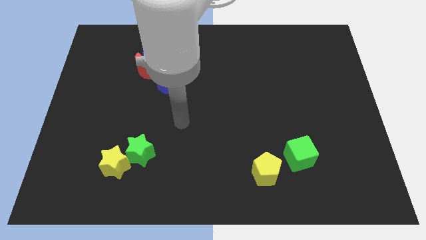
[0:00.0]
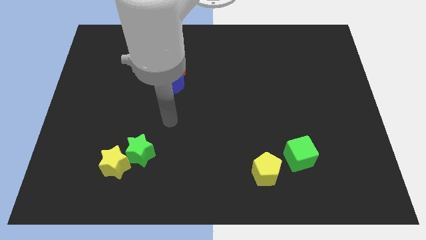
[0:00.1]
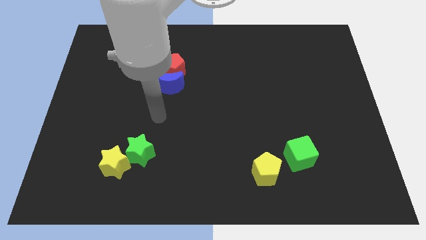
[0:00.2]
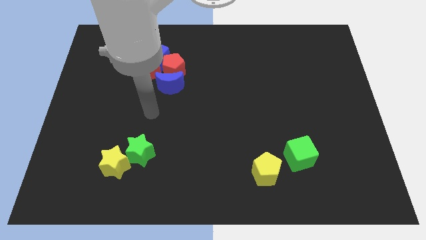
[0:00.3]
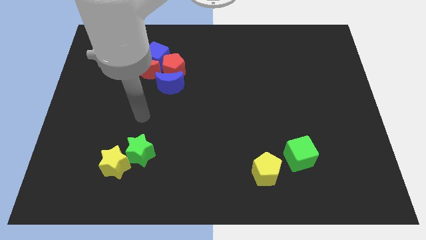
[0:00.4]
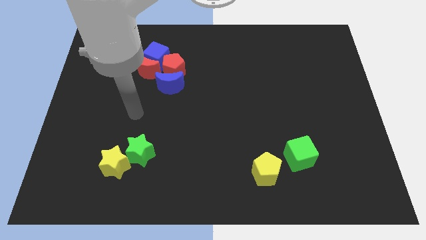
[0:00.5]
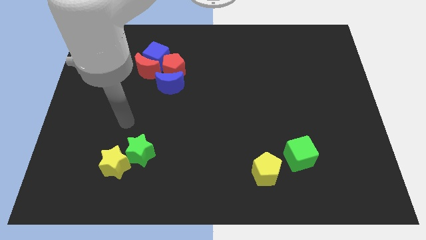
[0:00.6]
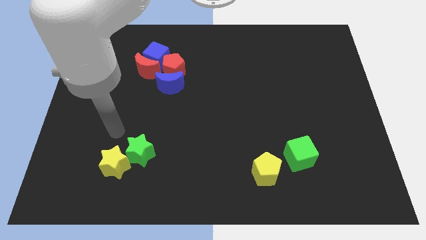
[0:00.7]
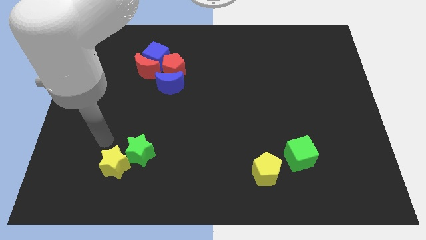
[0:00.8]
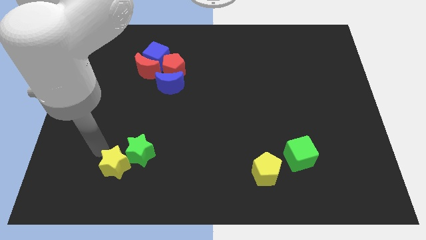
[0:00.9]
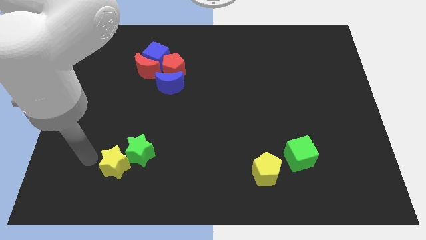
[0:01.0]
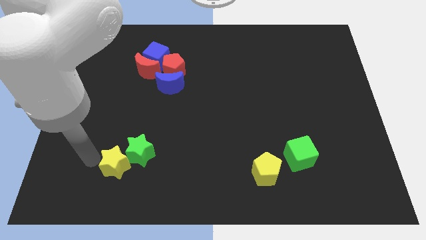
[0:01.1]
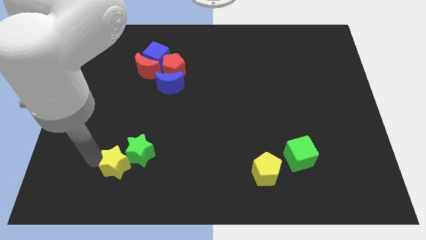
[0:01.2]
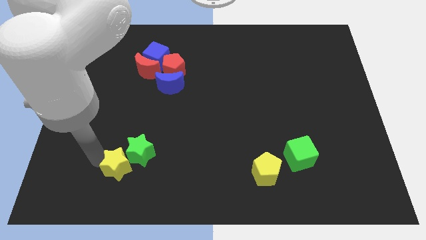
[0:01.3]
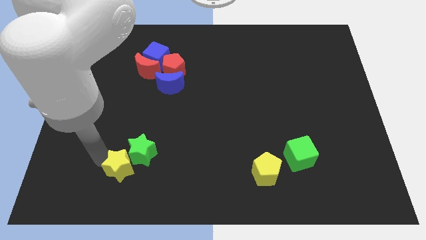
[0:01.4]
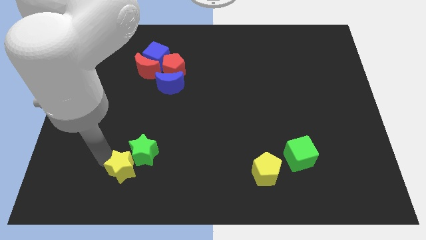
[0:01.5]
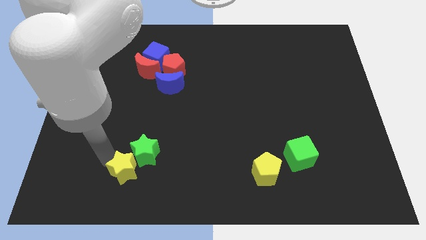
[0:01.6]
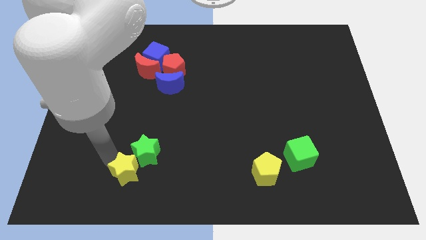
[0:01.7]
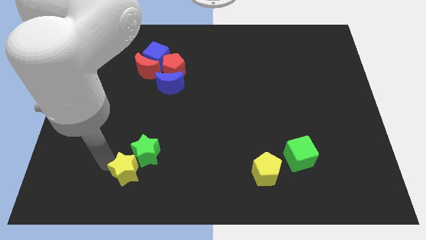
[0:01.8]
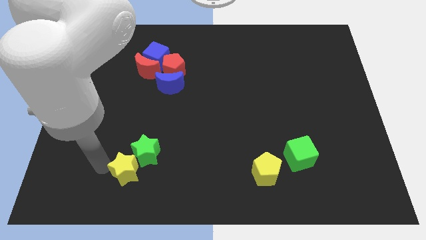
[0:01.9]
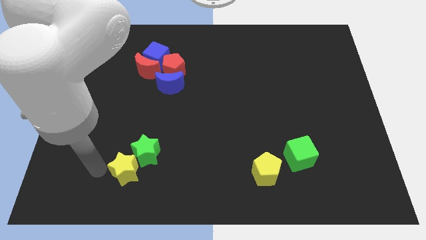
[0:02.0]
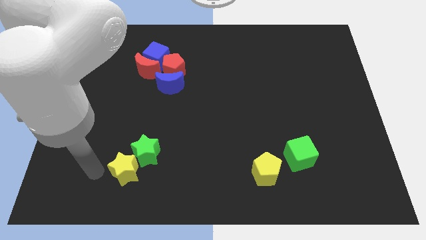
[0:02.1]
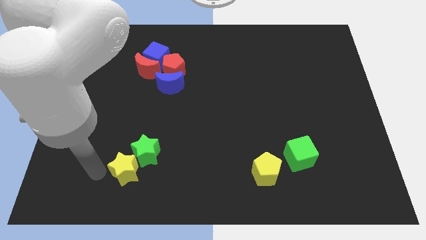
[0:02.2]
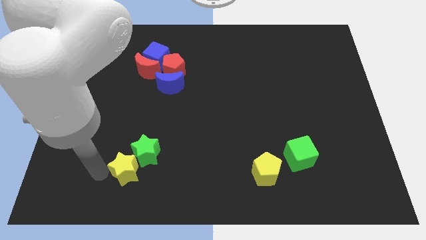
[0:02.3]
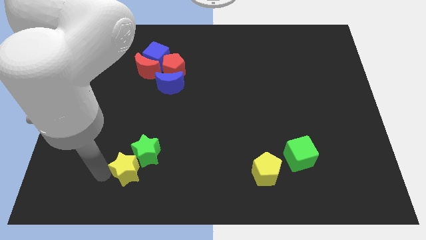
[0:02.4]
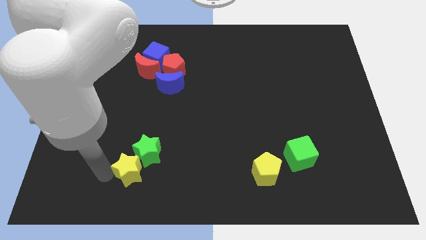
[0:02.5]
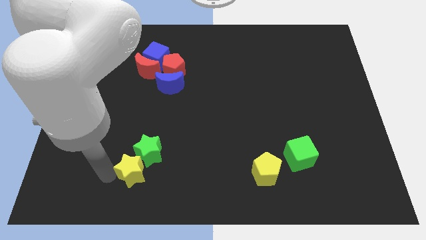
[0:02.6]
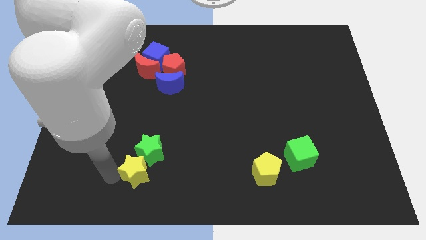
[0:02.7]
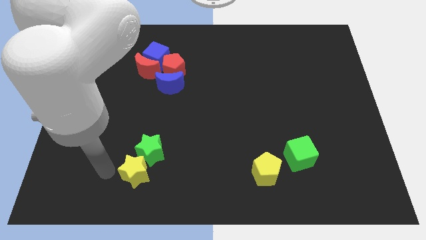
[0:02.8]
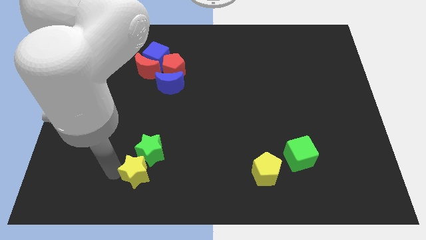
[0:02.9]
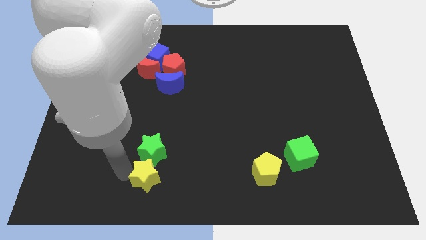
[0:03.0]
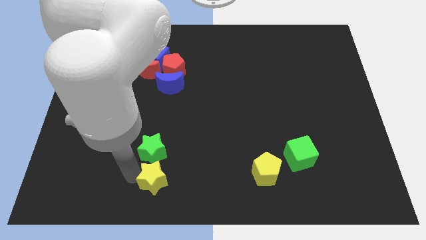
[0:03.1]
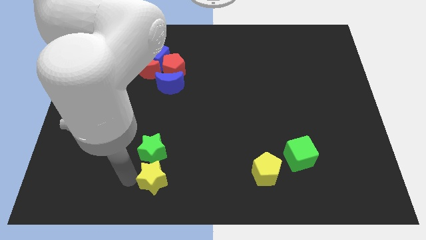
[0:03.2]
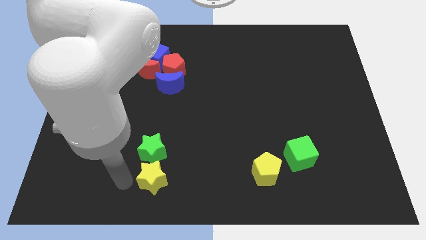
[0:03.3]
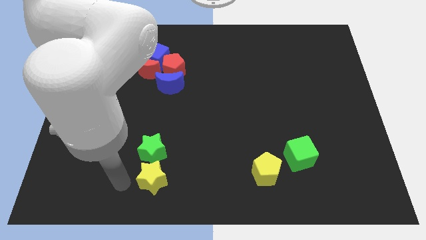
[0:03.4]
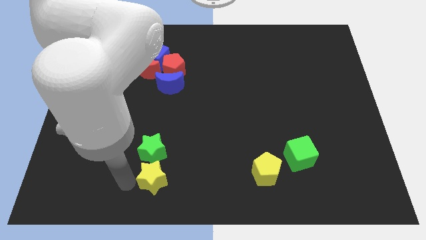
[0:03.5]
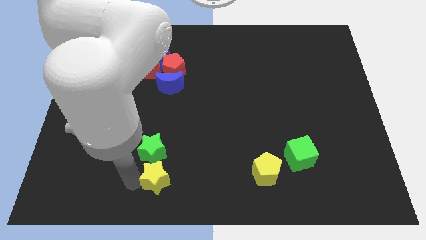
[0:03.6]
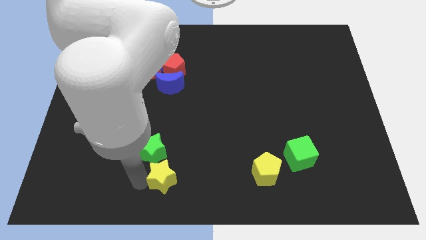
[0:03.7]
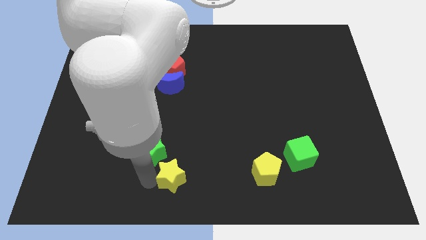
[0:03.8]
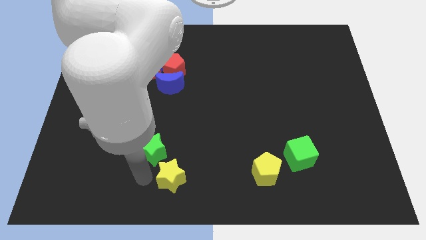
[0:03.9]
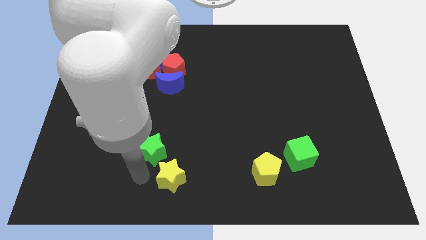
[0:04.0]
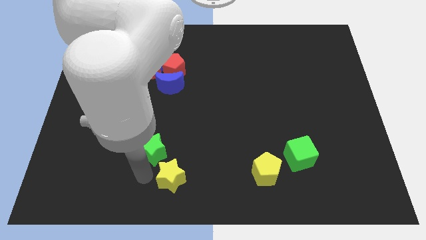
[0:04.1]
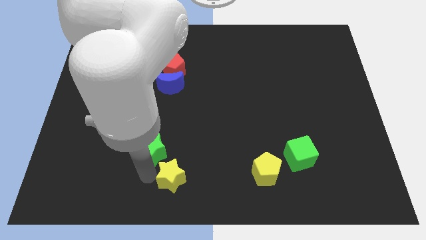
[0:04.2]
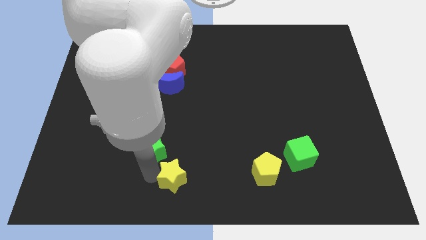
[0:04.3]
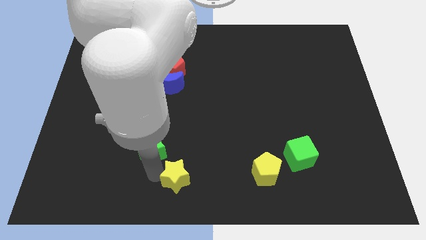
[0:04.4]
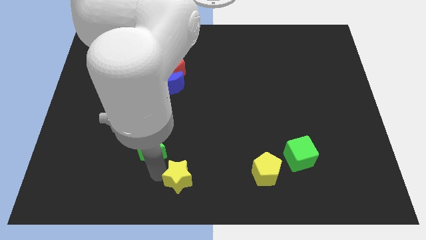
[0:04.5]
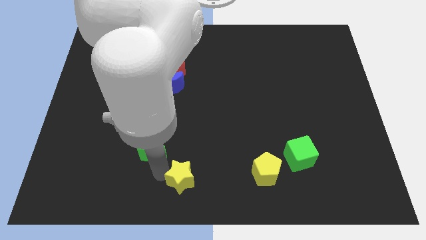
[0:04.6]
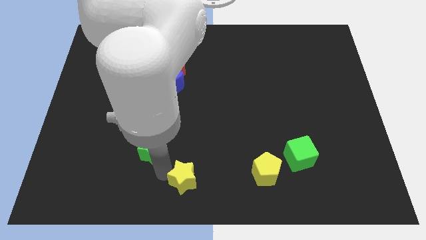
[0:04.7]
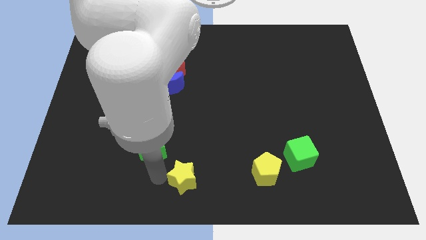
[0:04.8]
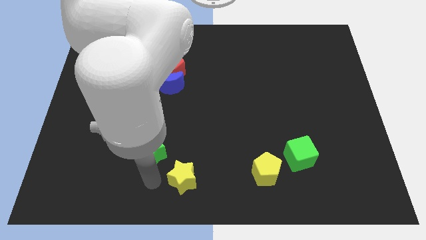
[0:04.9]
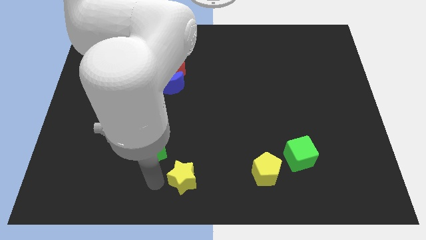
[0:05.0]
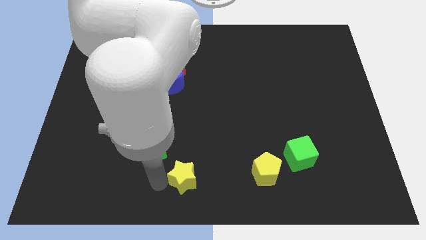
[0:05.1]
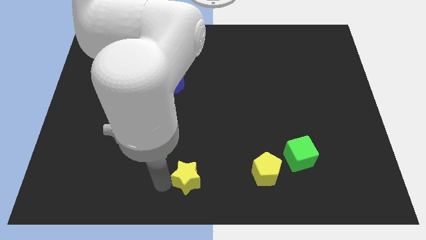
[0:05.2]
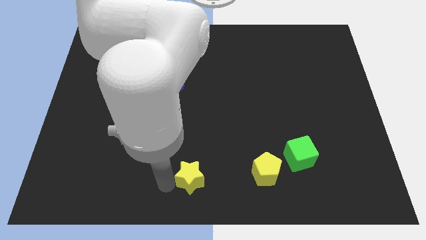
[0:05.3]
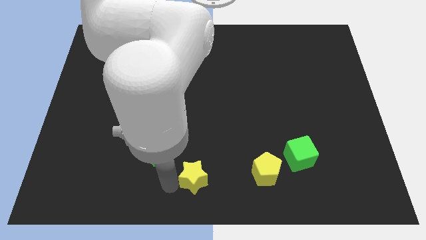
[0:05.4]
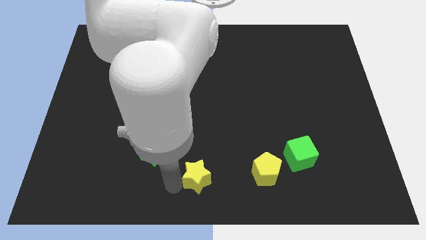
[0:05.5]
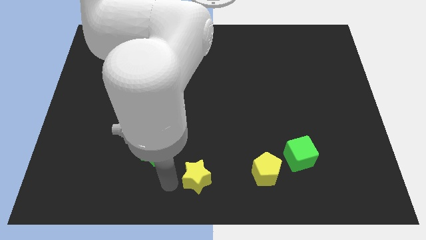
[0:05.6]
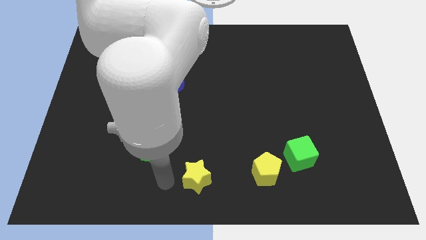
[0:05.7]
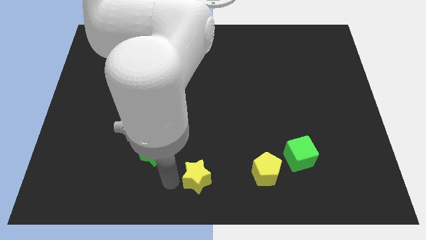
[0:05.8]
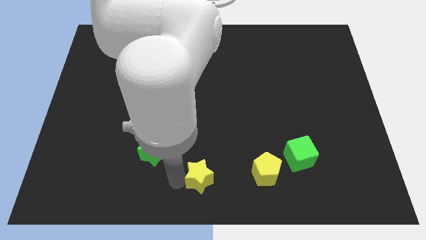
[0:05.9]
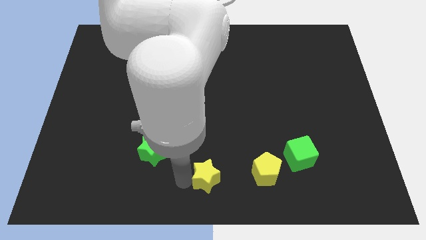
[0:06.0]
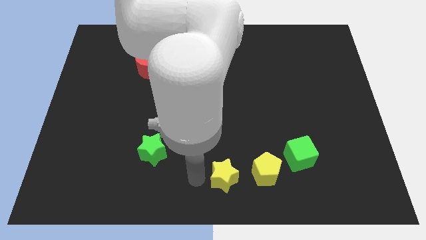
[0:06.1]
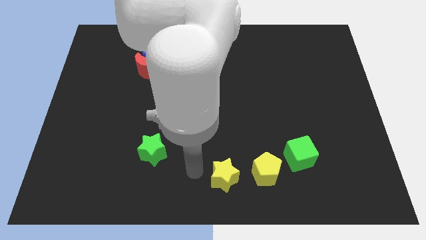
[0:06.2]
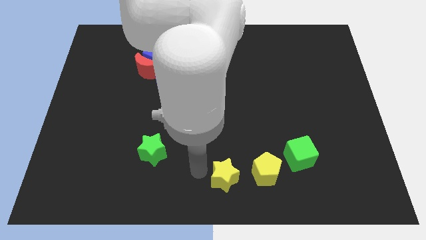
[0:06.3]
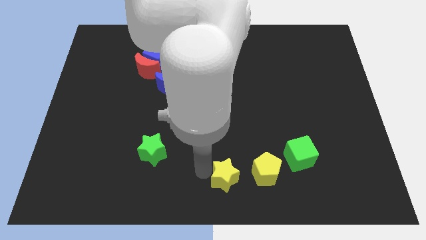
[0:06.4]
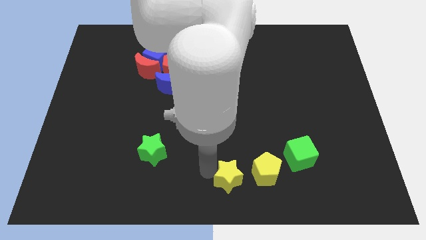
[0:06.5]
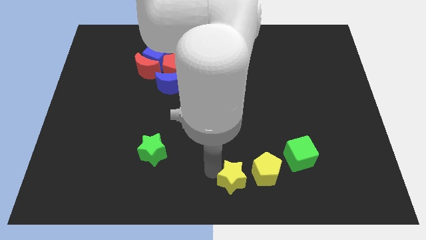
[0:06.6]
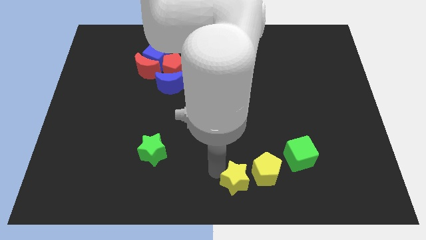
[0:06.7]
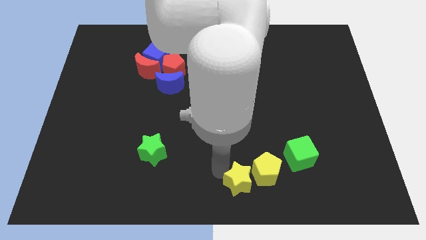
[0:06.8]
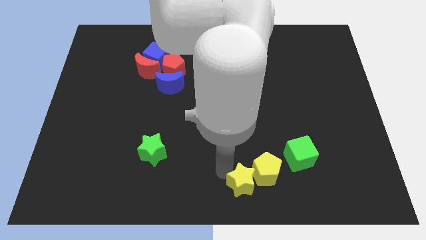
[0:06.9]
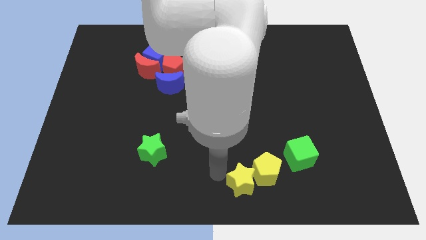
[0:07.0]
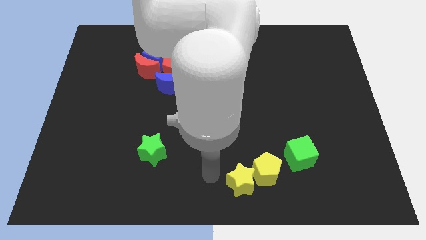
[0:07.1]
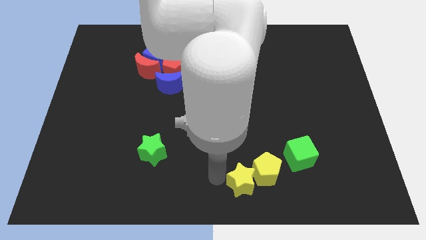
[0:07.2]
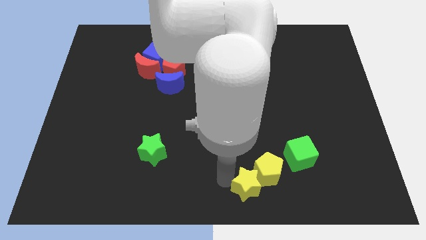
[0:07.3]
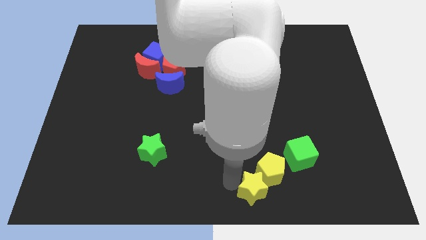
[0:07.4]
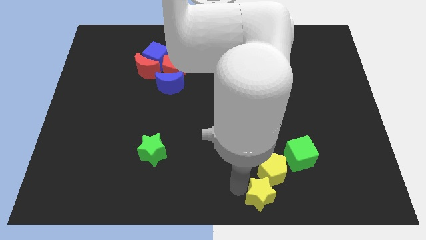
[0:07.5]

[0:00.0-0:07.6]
move the yellow star diagonally down and to the left of the green cube

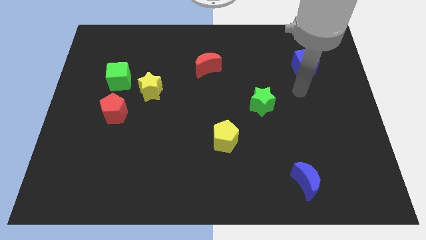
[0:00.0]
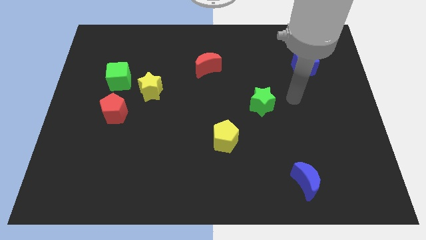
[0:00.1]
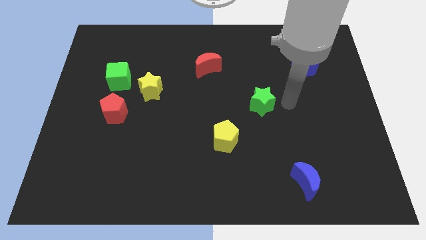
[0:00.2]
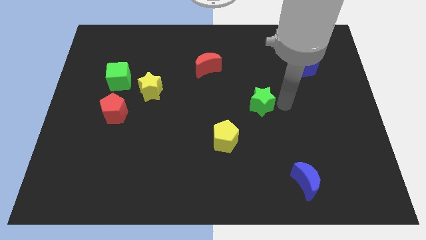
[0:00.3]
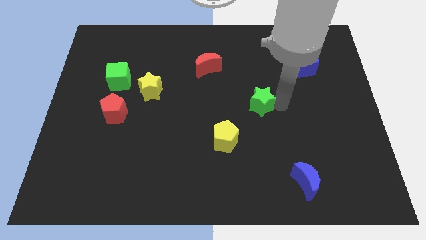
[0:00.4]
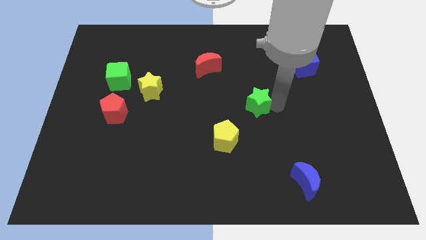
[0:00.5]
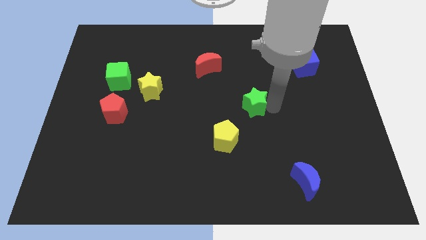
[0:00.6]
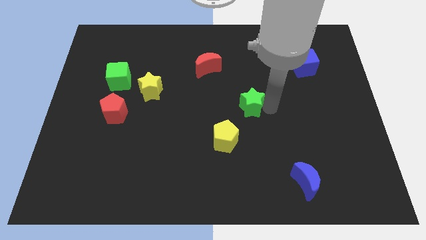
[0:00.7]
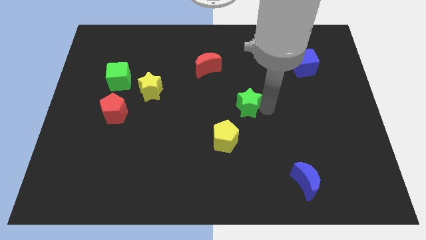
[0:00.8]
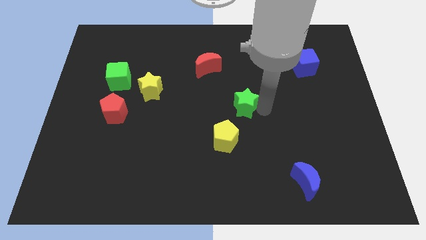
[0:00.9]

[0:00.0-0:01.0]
push the green star to the top of the yellow pentagon
